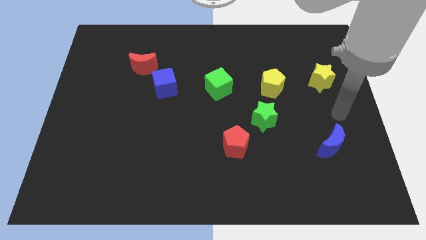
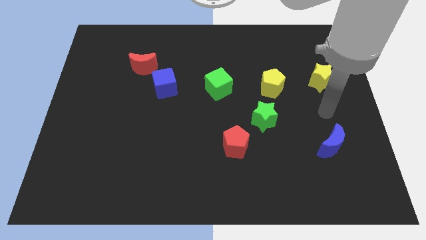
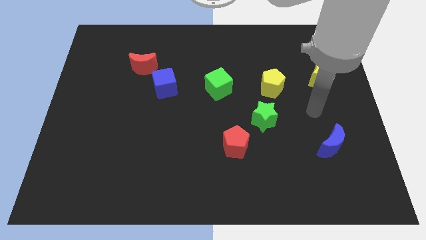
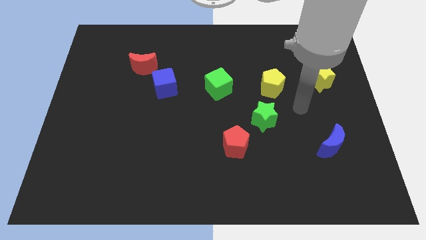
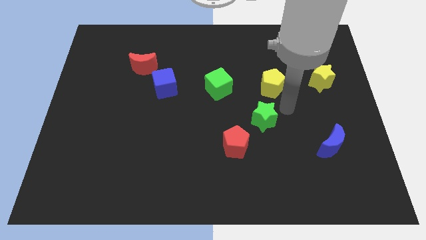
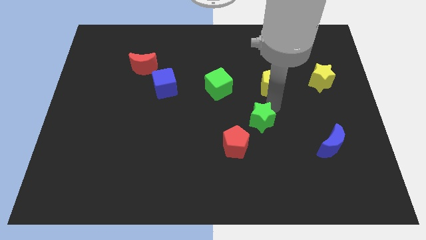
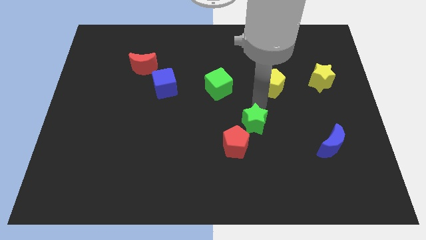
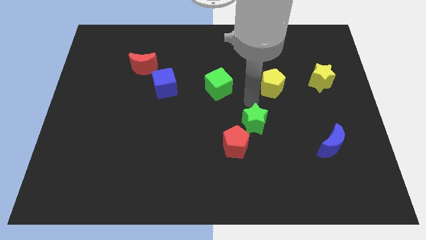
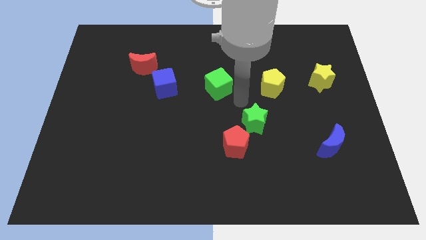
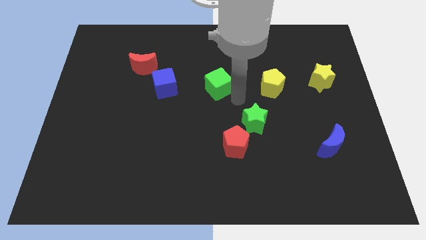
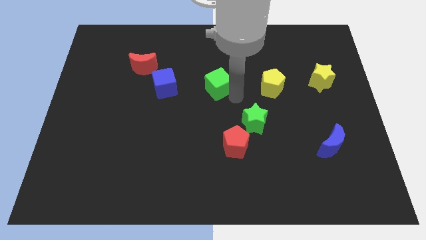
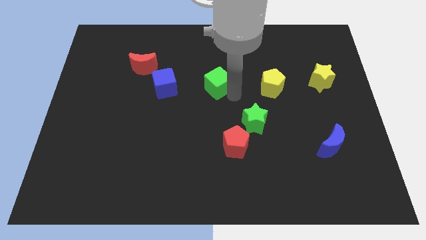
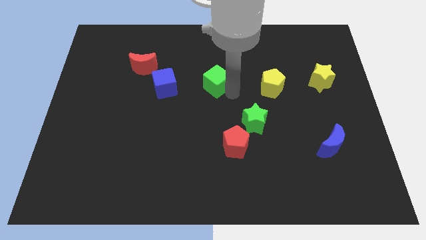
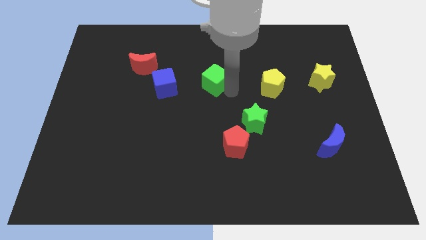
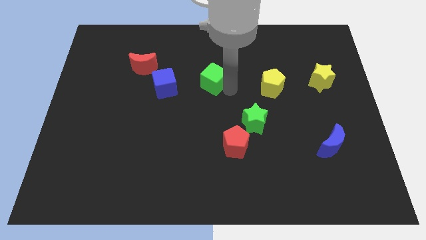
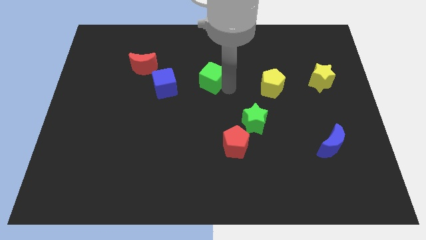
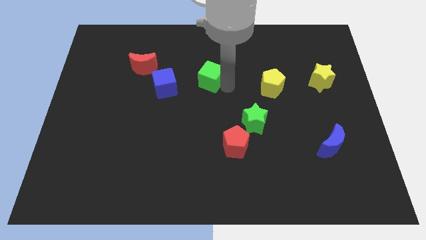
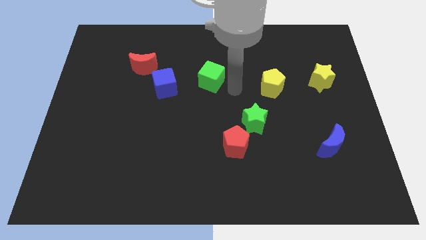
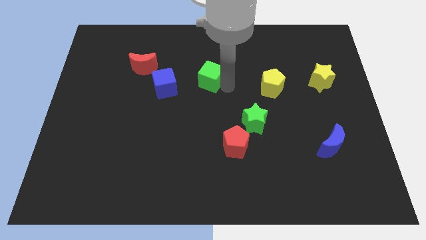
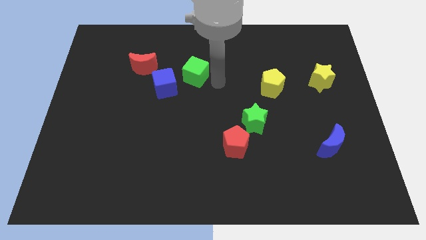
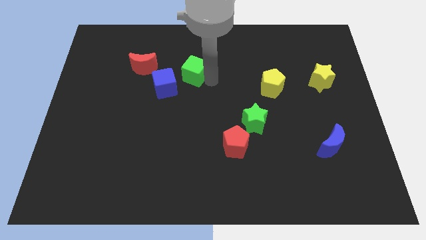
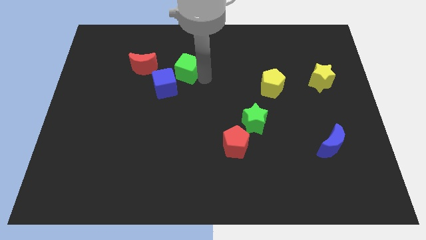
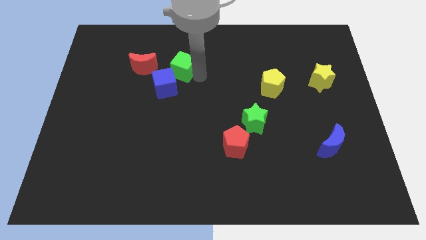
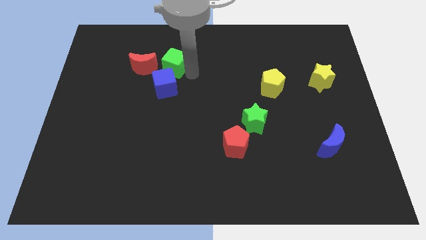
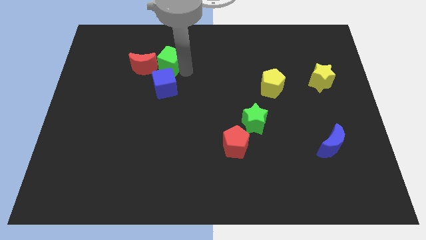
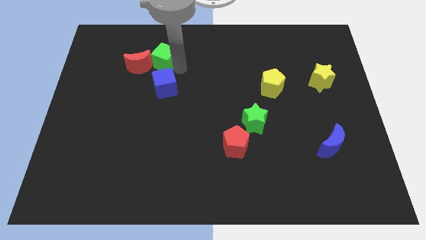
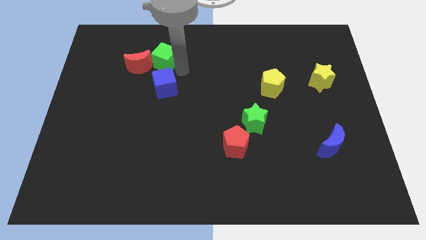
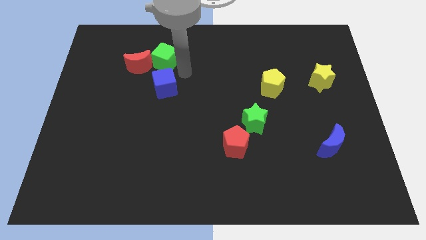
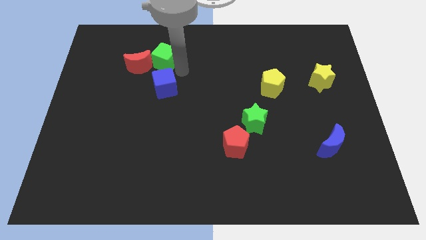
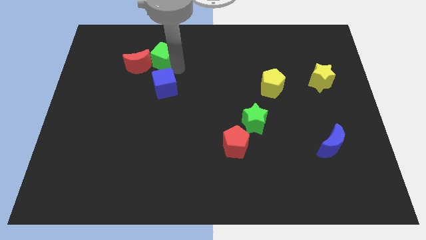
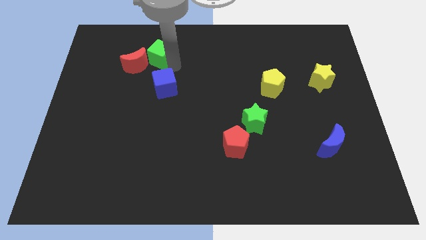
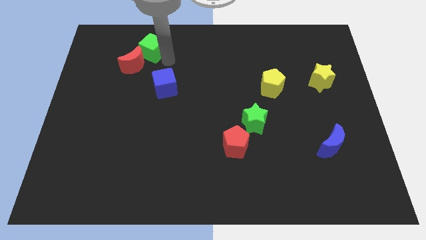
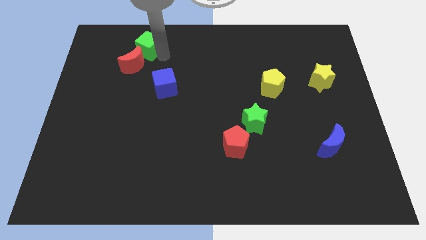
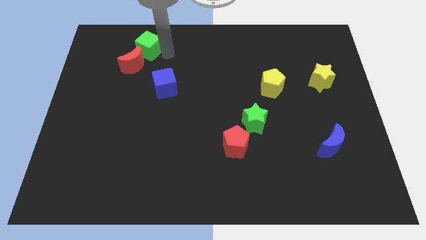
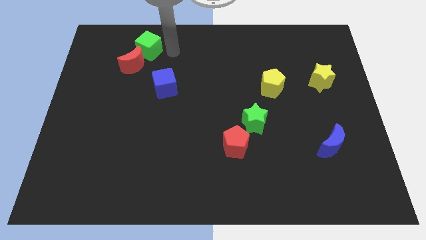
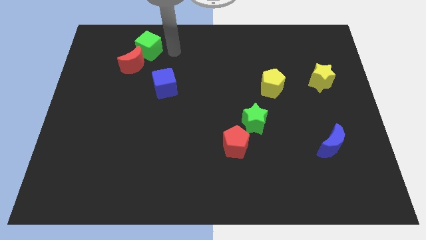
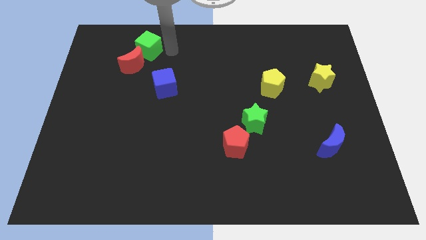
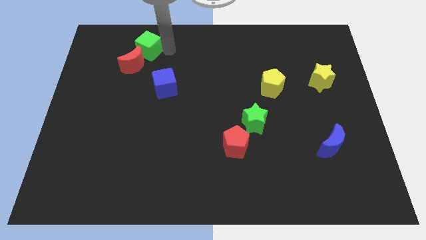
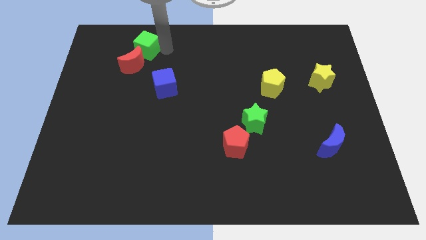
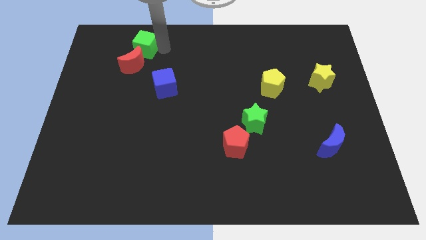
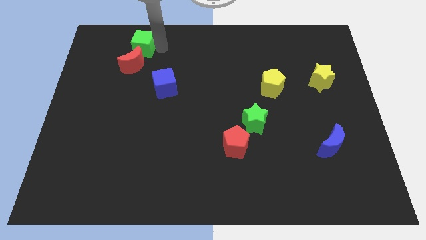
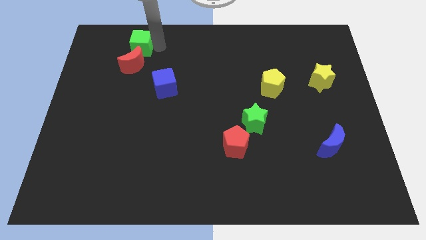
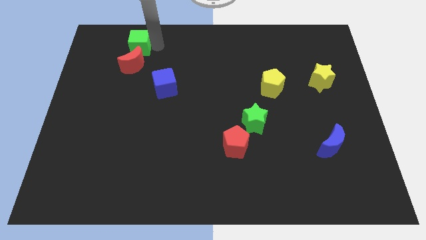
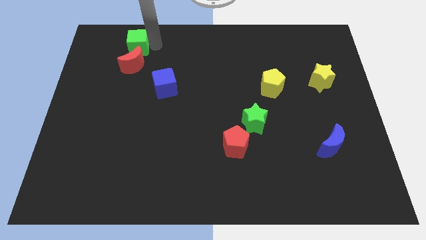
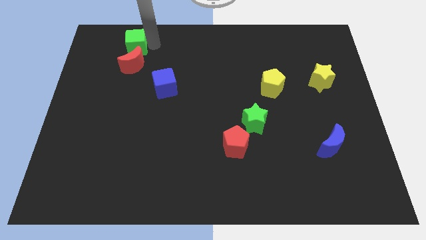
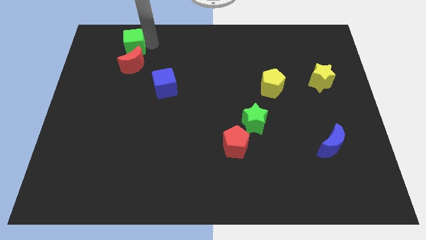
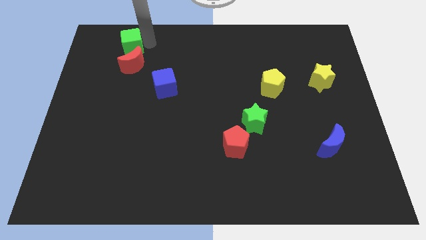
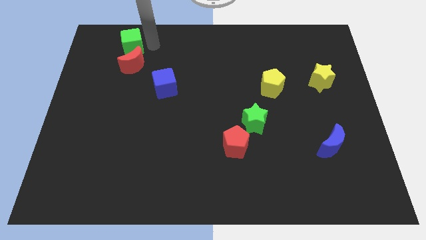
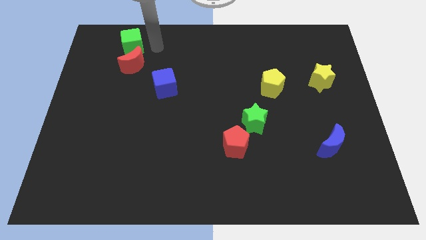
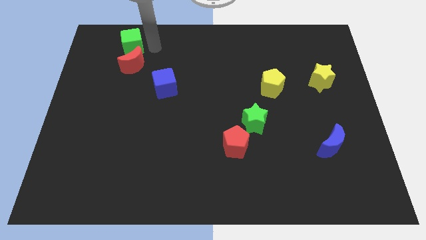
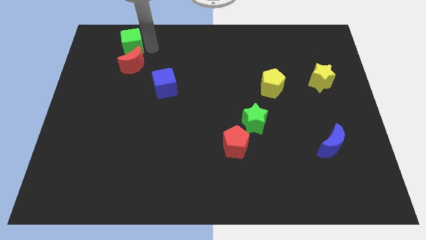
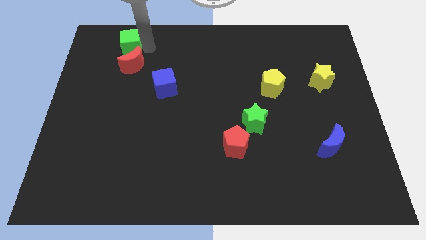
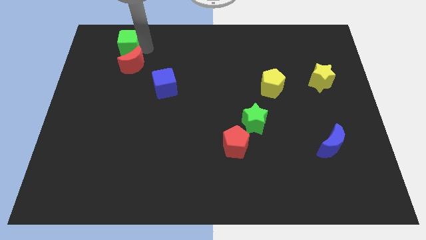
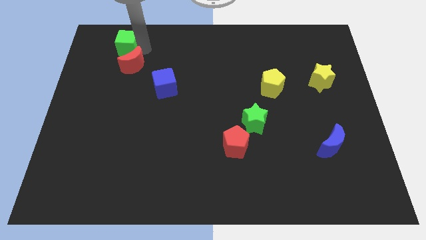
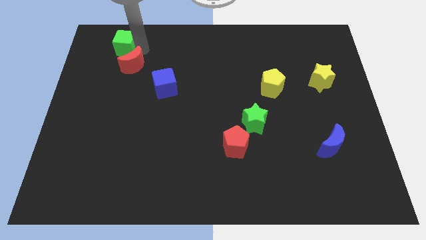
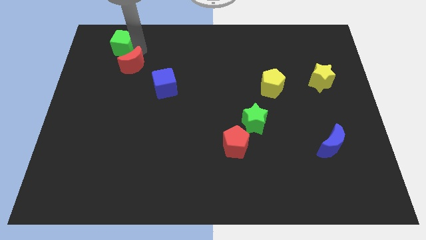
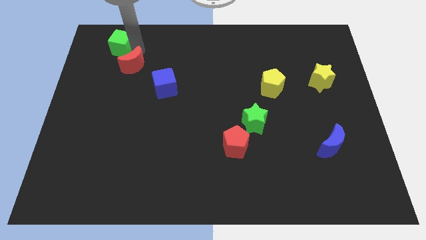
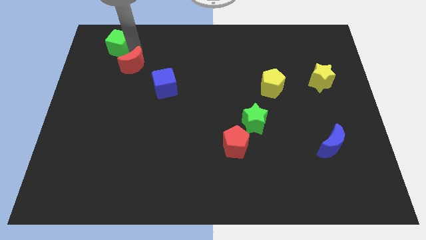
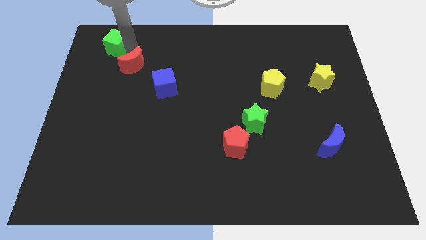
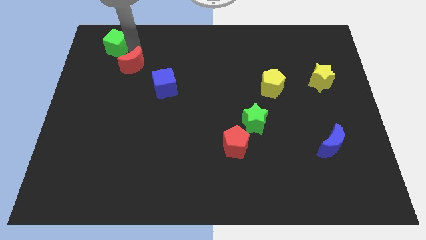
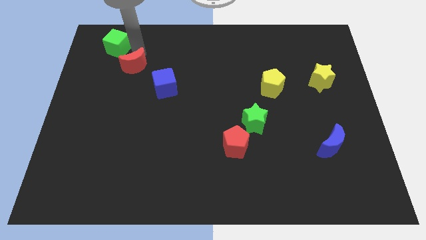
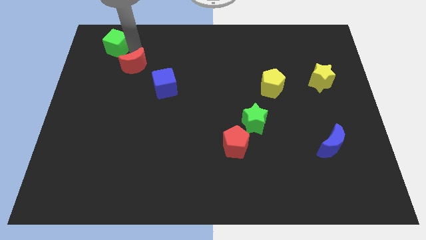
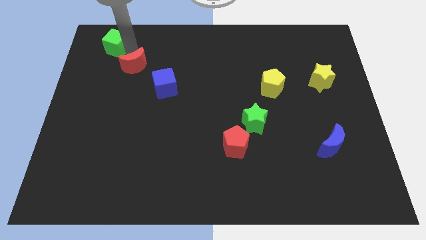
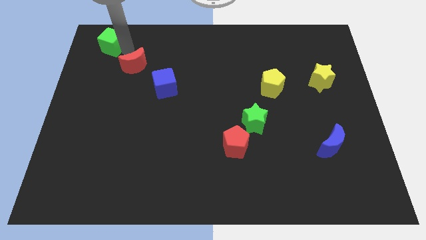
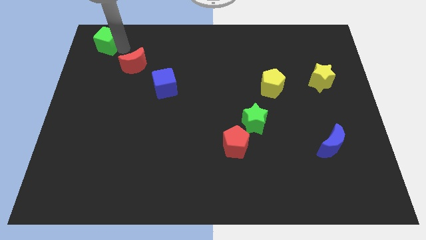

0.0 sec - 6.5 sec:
slide the green cube to the top left corner

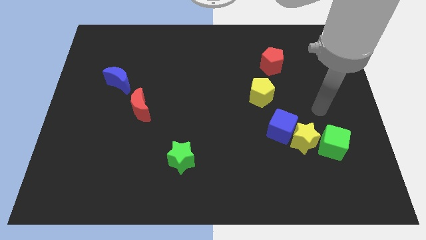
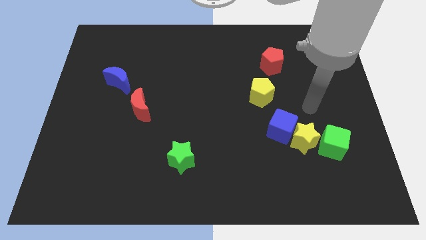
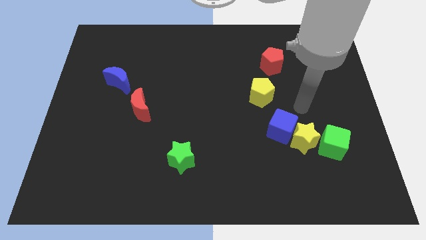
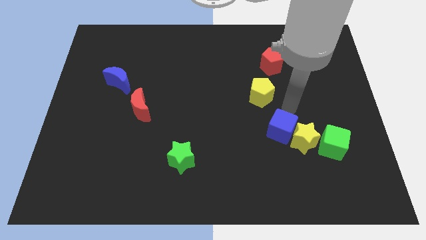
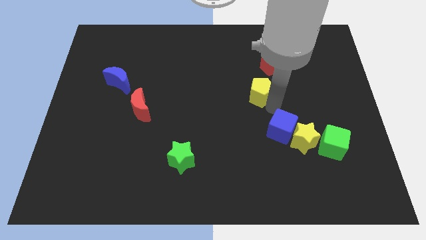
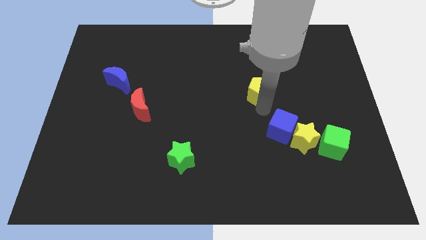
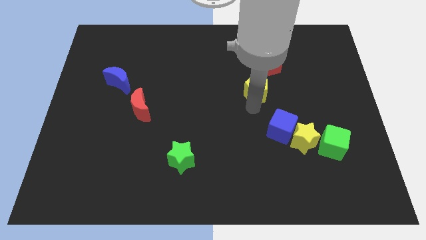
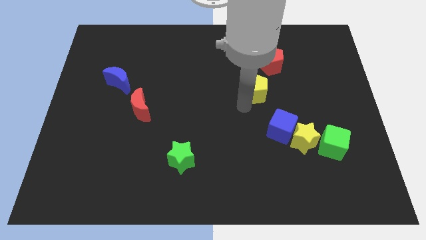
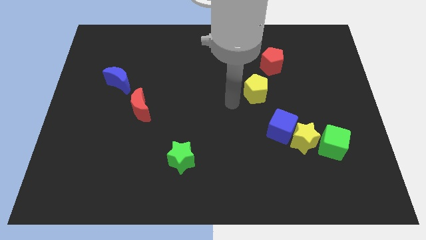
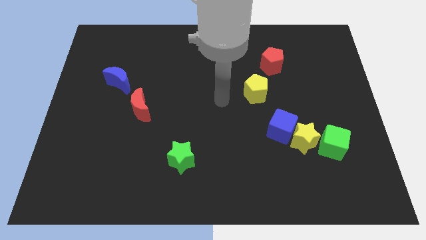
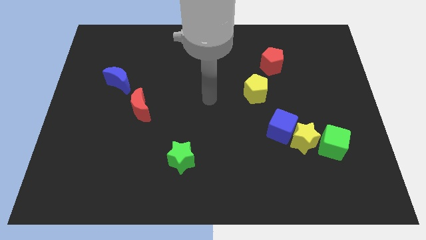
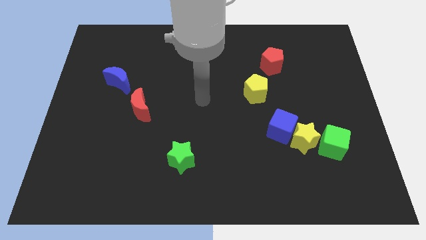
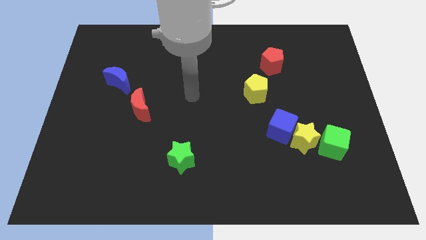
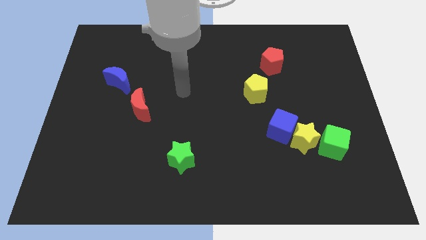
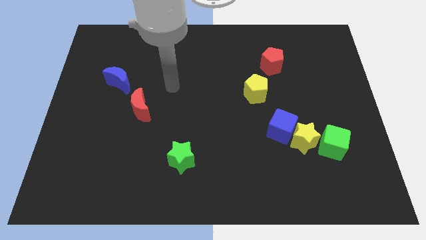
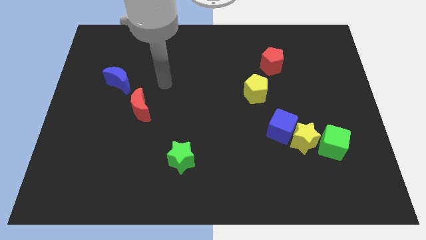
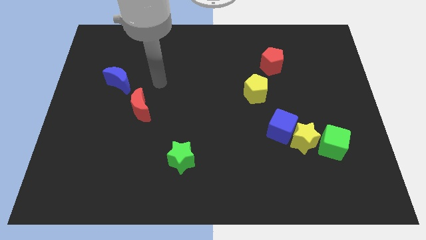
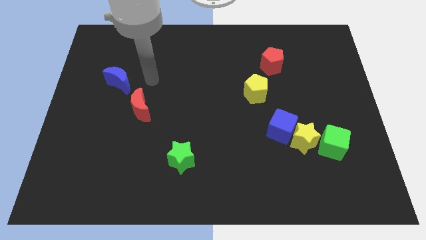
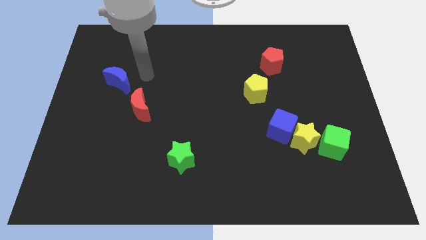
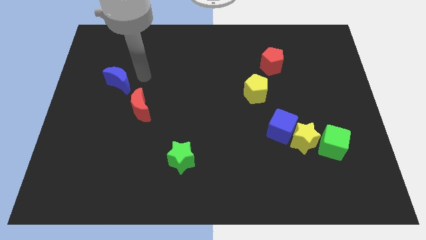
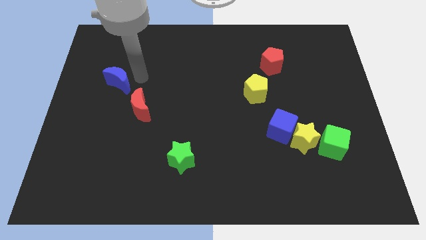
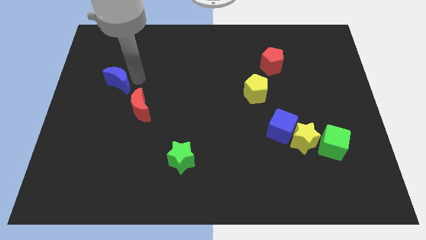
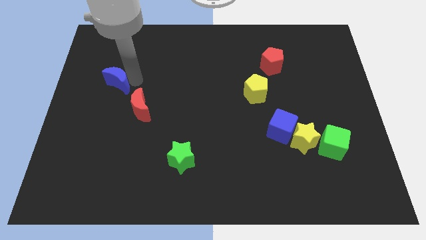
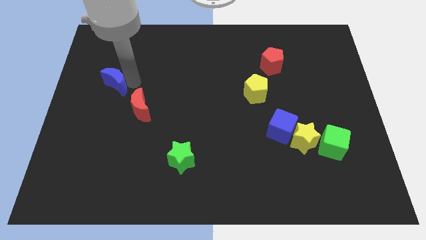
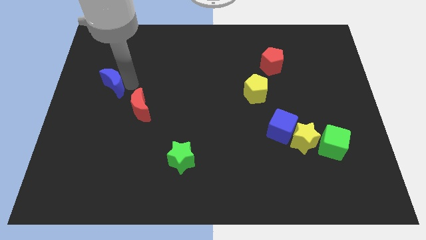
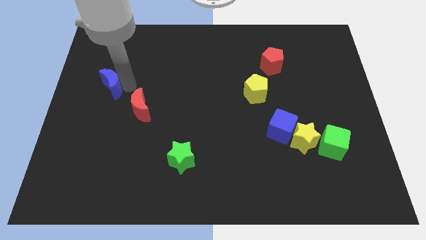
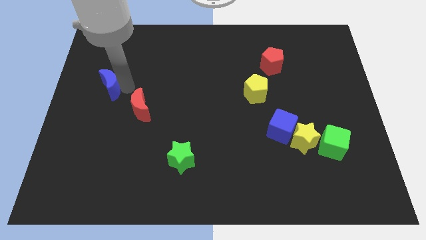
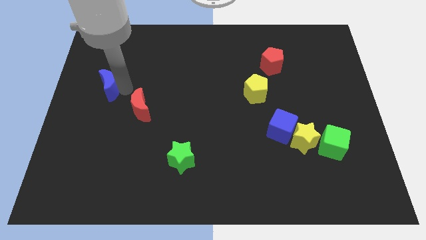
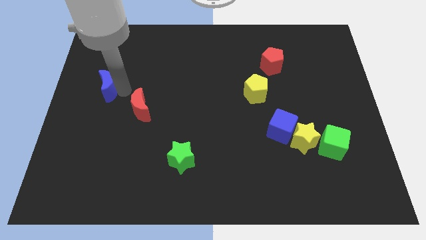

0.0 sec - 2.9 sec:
move the blue moon to the left side
